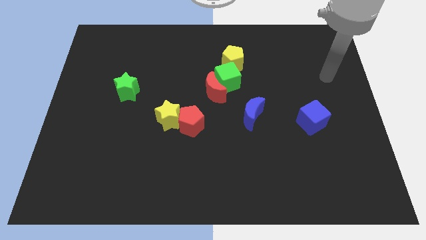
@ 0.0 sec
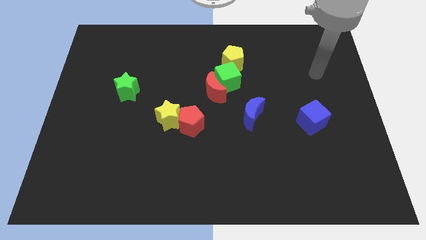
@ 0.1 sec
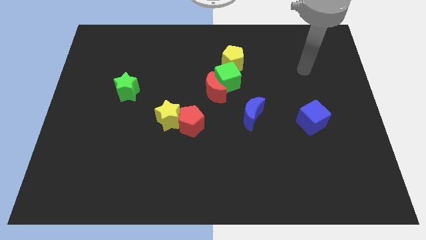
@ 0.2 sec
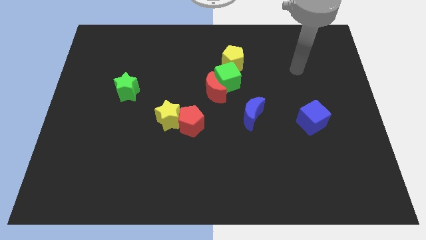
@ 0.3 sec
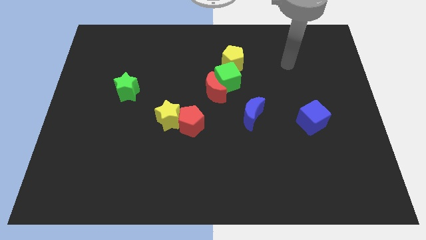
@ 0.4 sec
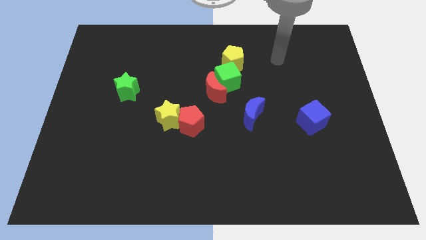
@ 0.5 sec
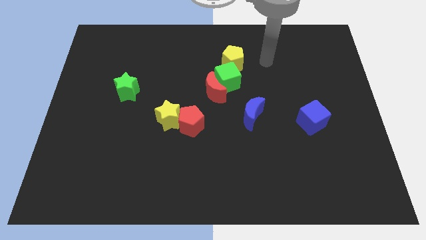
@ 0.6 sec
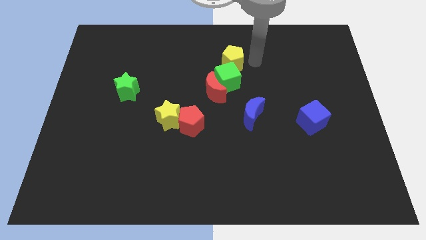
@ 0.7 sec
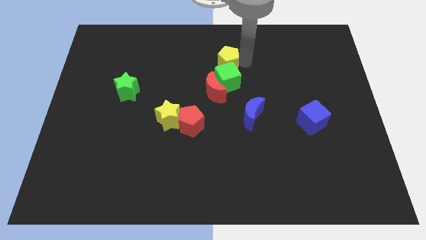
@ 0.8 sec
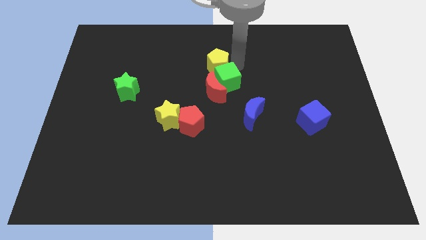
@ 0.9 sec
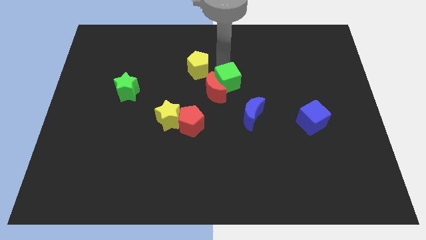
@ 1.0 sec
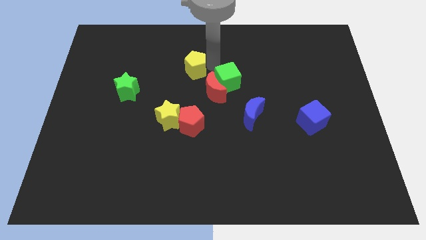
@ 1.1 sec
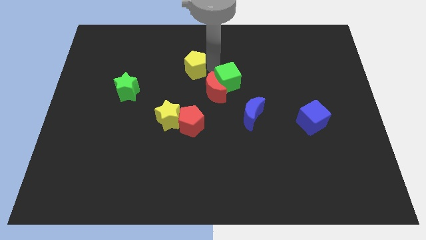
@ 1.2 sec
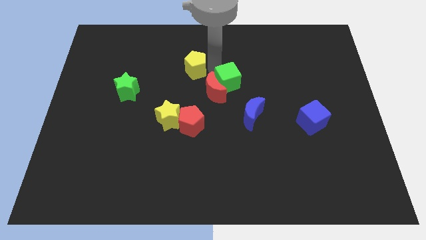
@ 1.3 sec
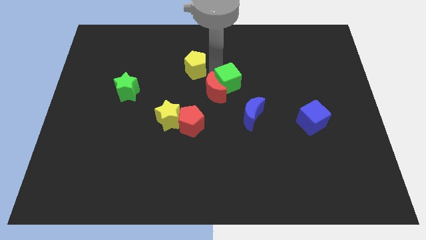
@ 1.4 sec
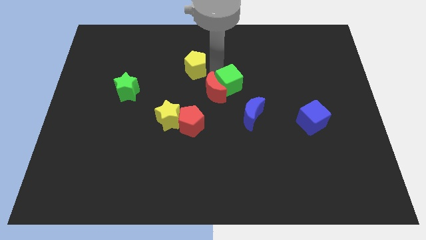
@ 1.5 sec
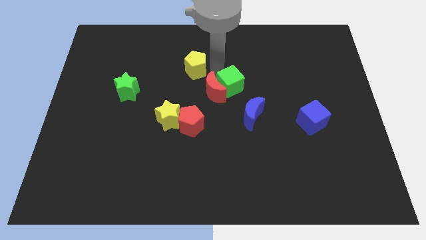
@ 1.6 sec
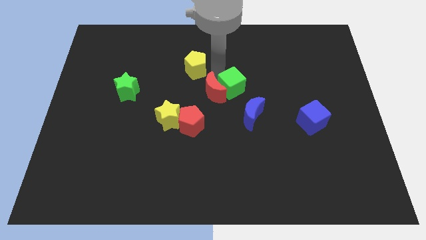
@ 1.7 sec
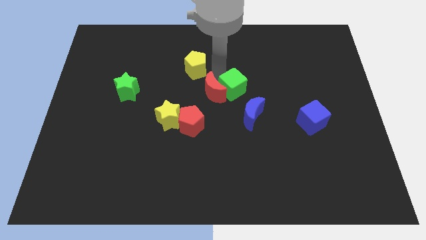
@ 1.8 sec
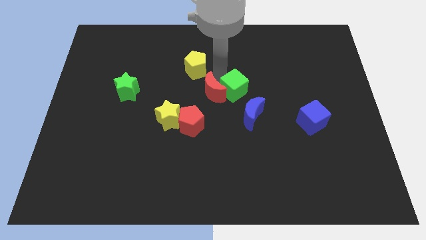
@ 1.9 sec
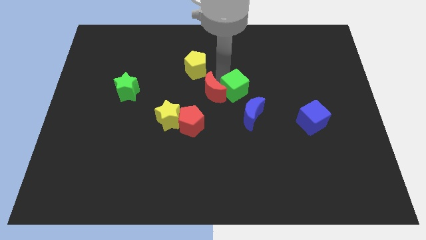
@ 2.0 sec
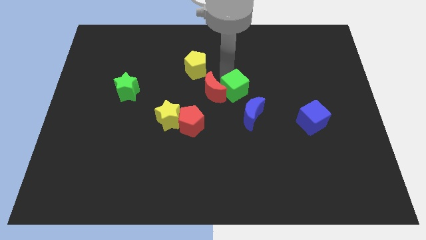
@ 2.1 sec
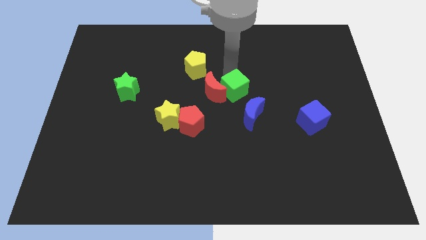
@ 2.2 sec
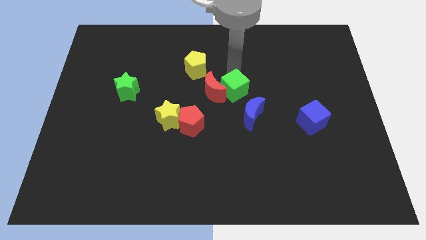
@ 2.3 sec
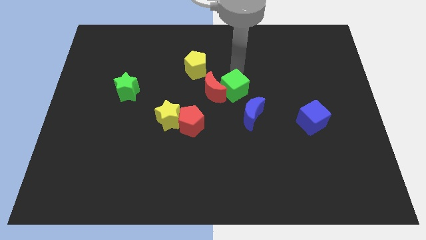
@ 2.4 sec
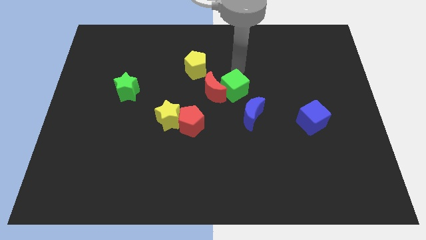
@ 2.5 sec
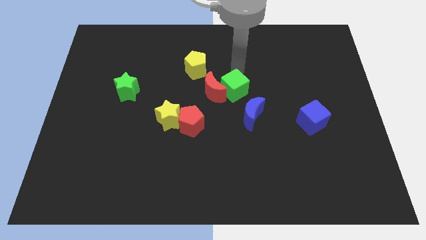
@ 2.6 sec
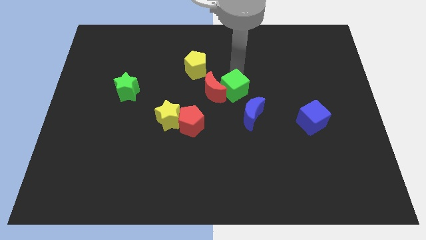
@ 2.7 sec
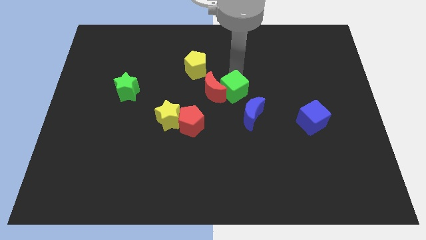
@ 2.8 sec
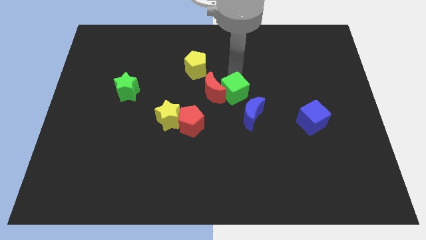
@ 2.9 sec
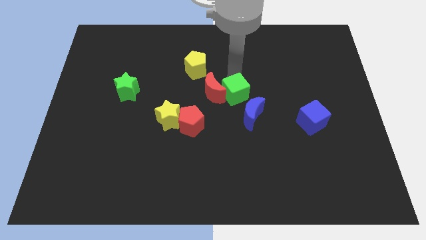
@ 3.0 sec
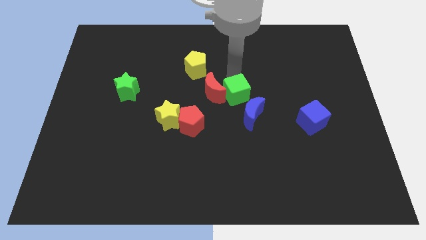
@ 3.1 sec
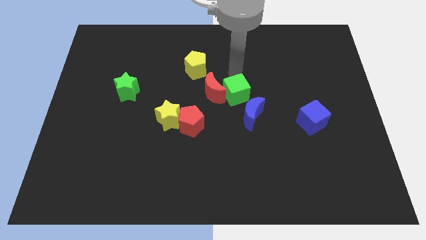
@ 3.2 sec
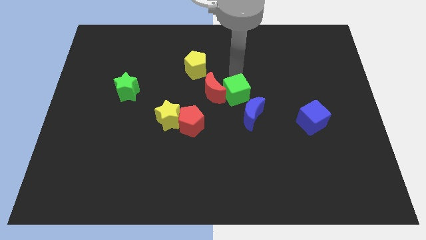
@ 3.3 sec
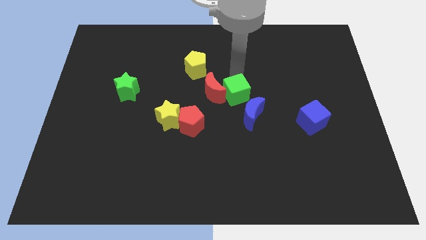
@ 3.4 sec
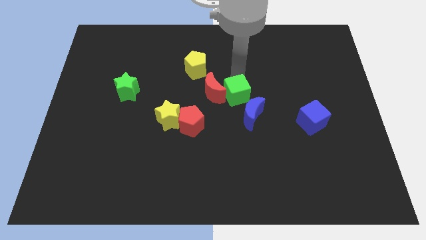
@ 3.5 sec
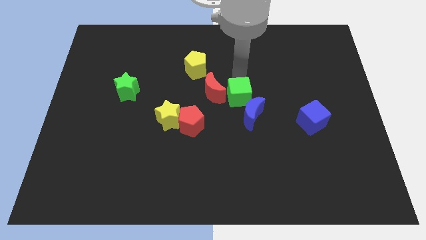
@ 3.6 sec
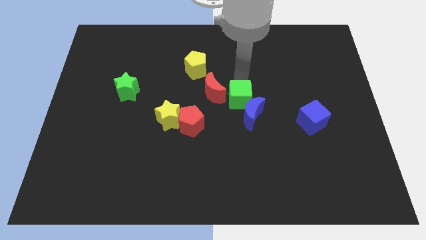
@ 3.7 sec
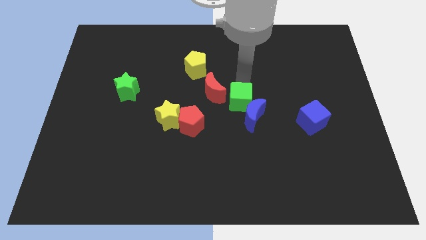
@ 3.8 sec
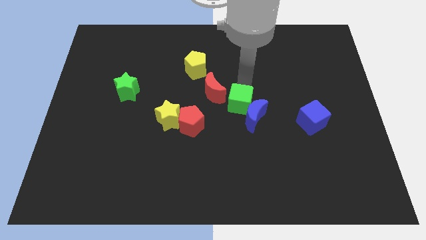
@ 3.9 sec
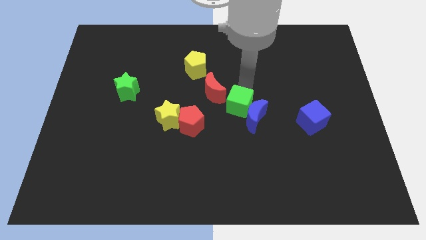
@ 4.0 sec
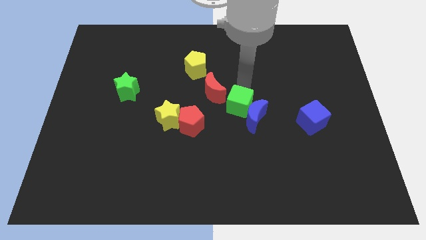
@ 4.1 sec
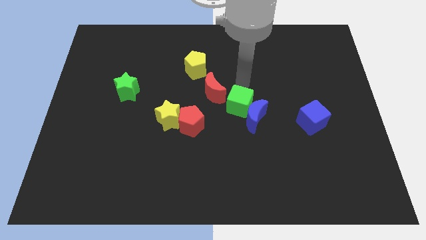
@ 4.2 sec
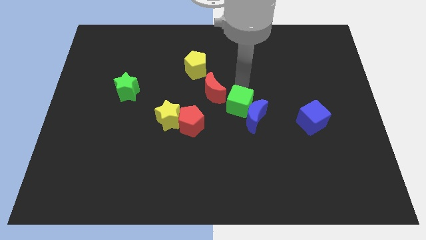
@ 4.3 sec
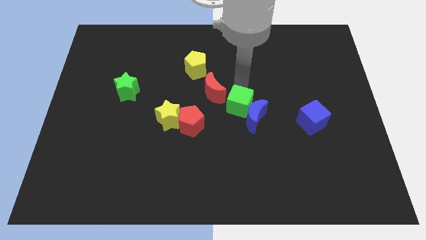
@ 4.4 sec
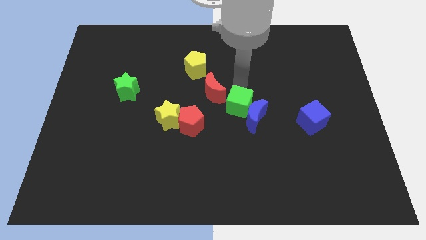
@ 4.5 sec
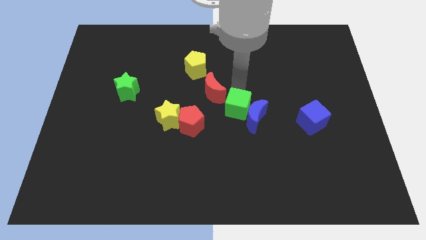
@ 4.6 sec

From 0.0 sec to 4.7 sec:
push the green cube right of the red pentagon

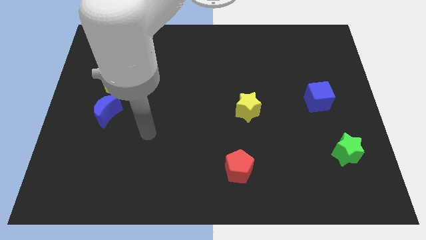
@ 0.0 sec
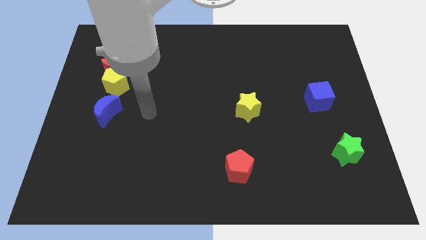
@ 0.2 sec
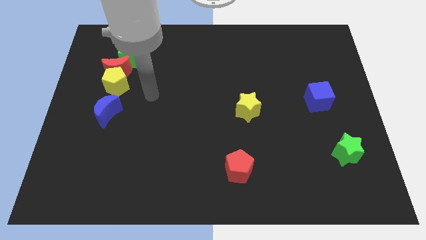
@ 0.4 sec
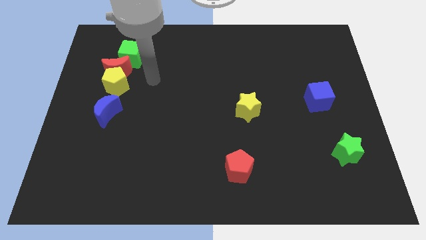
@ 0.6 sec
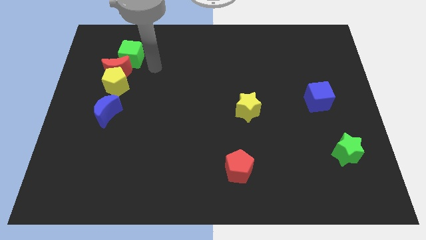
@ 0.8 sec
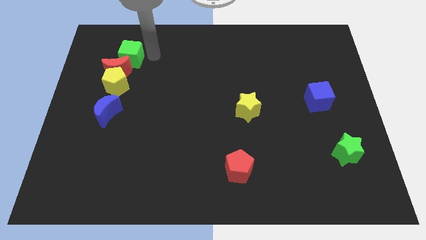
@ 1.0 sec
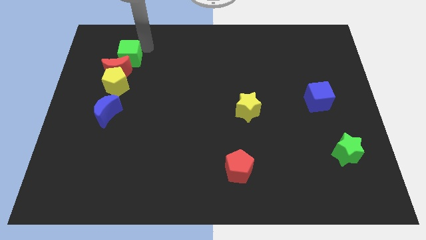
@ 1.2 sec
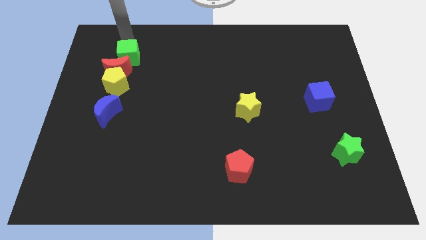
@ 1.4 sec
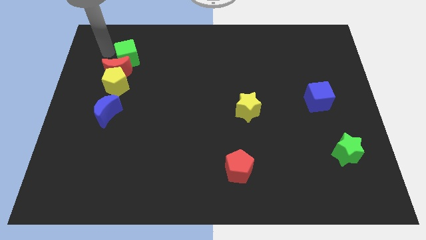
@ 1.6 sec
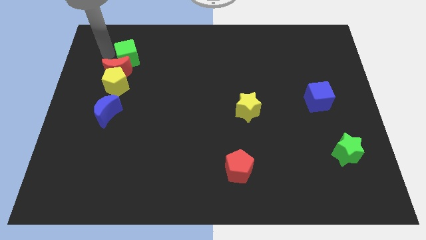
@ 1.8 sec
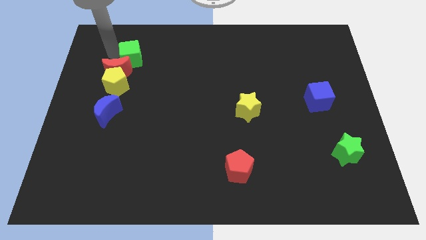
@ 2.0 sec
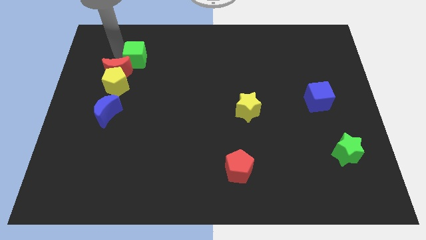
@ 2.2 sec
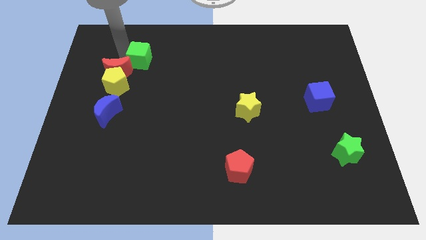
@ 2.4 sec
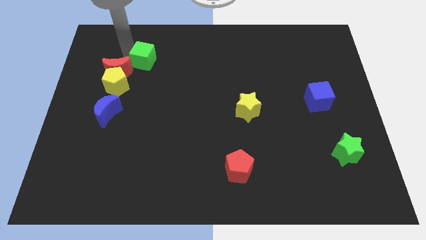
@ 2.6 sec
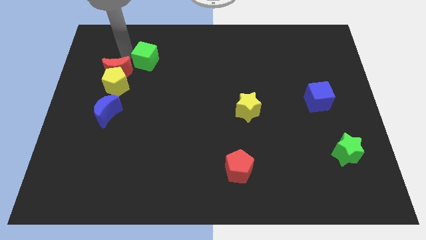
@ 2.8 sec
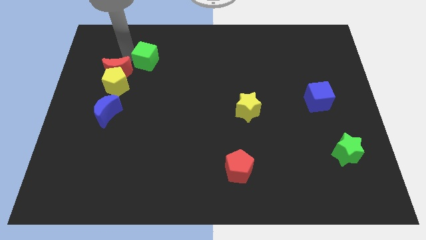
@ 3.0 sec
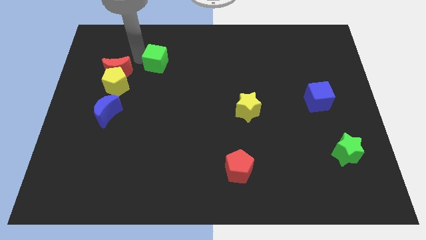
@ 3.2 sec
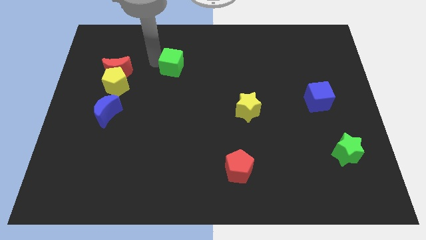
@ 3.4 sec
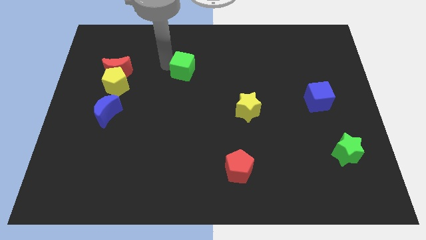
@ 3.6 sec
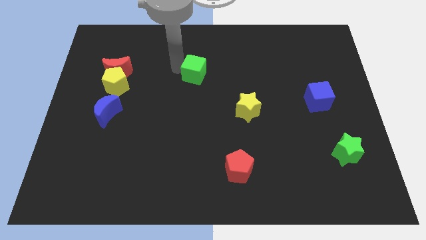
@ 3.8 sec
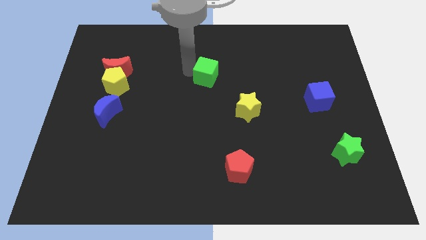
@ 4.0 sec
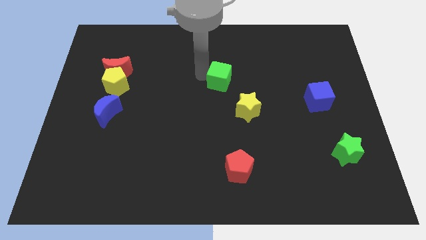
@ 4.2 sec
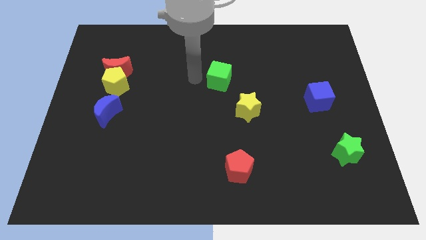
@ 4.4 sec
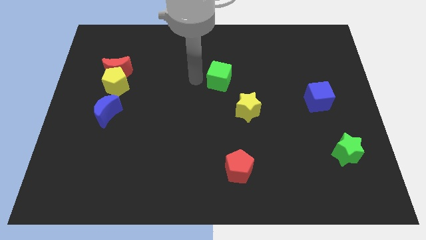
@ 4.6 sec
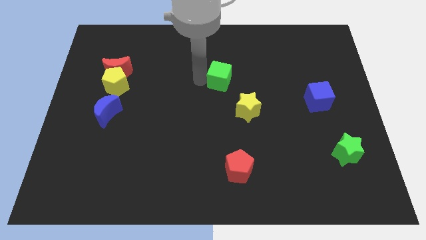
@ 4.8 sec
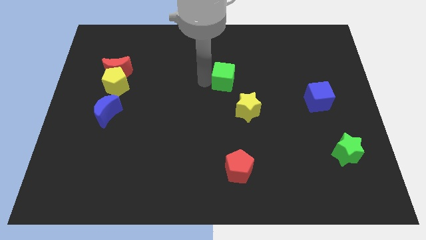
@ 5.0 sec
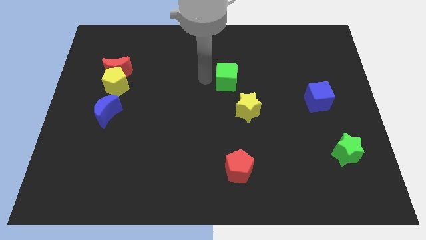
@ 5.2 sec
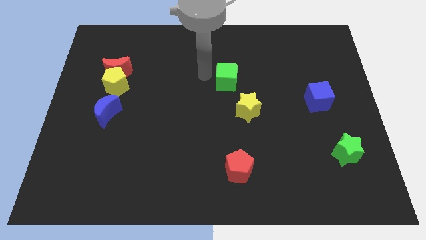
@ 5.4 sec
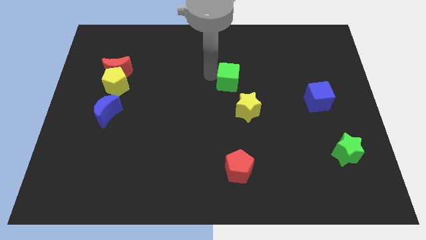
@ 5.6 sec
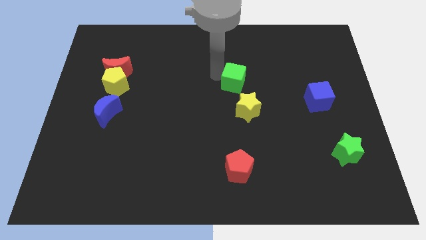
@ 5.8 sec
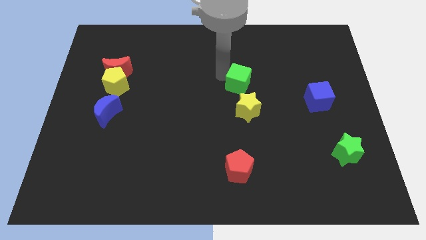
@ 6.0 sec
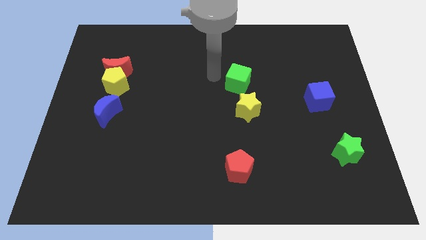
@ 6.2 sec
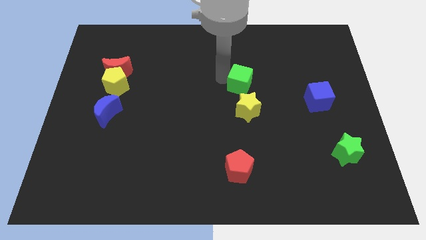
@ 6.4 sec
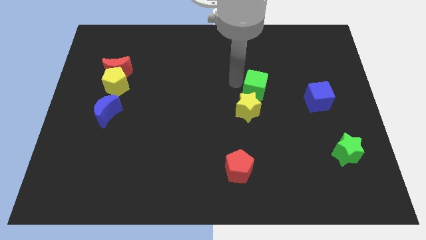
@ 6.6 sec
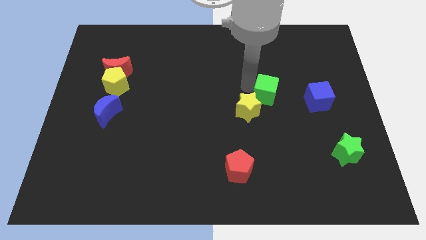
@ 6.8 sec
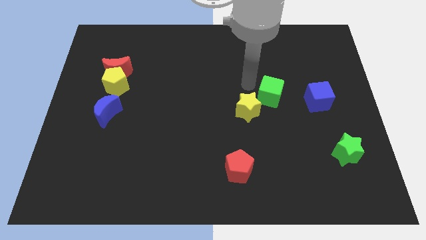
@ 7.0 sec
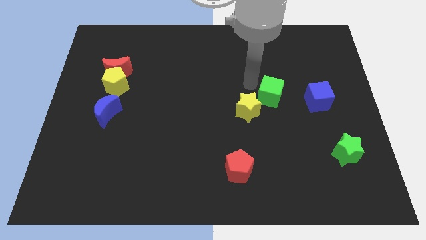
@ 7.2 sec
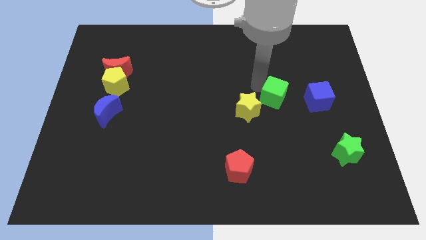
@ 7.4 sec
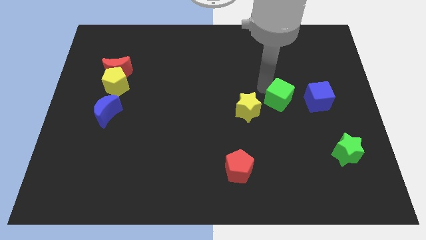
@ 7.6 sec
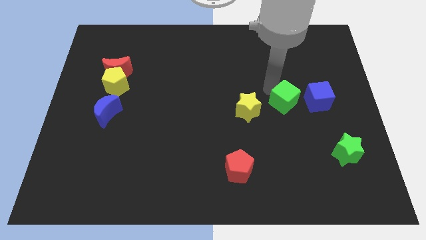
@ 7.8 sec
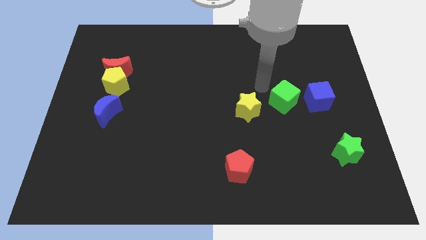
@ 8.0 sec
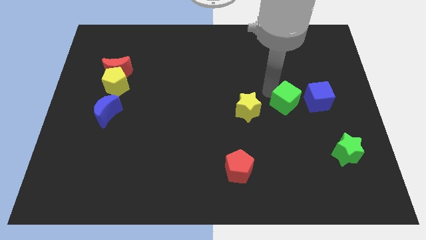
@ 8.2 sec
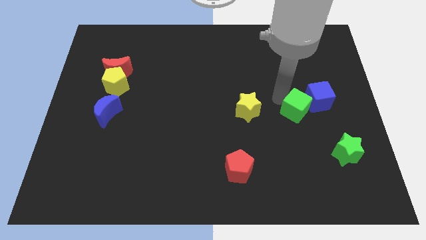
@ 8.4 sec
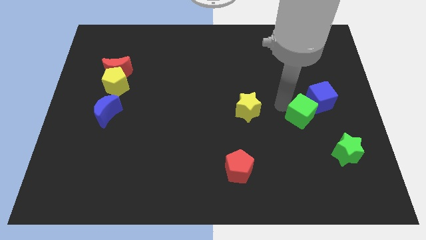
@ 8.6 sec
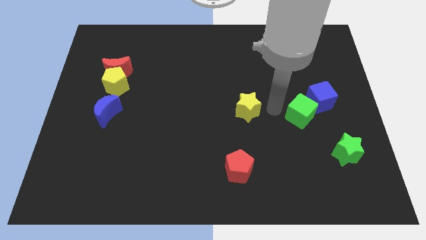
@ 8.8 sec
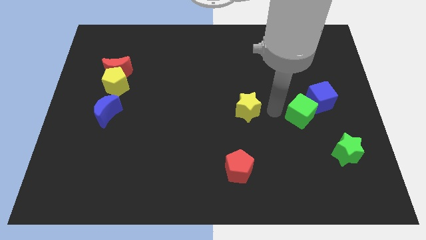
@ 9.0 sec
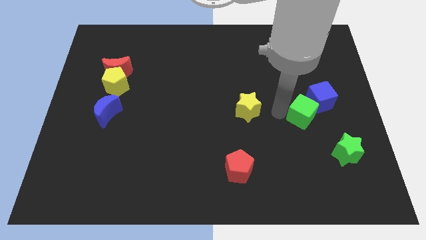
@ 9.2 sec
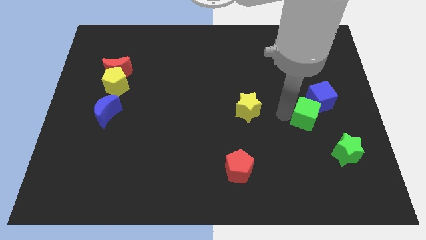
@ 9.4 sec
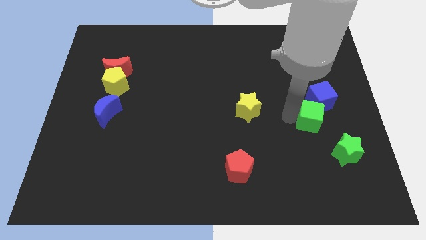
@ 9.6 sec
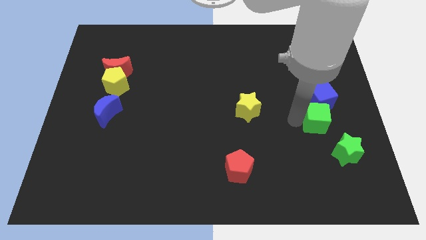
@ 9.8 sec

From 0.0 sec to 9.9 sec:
move the green cube above the green star
